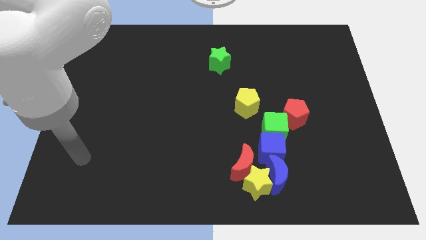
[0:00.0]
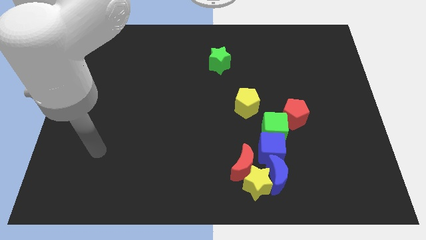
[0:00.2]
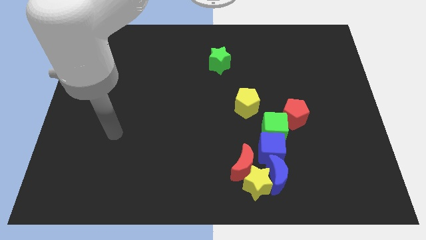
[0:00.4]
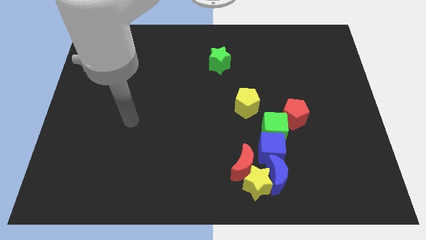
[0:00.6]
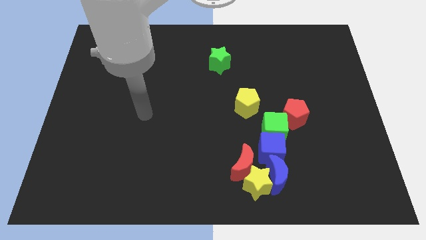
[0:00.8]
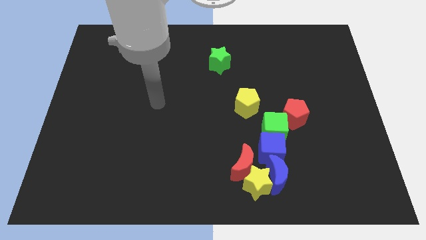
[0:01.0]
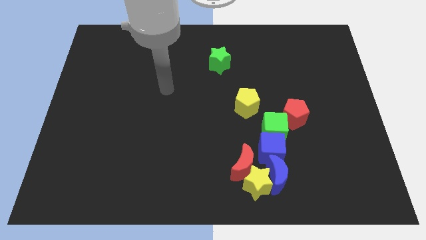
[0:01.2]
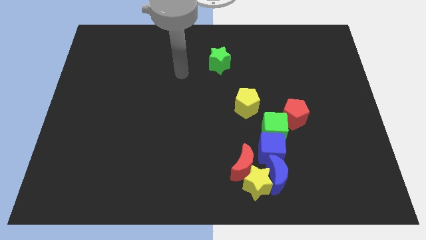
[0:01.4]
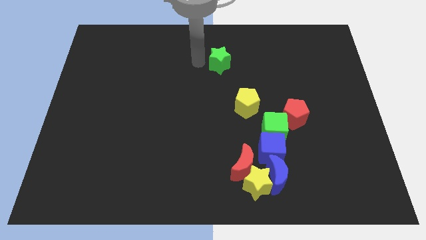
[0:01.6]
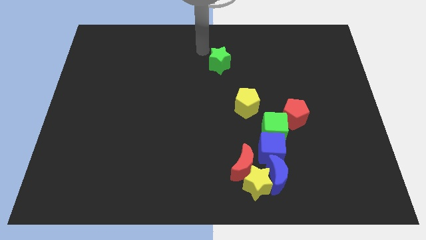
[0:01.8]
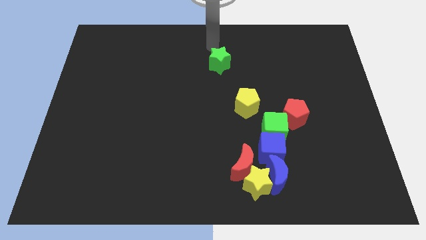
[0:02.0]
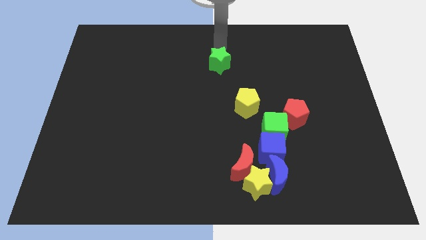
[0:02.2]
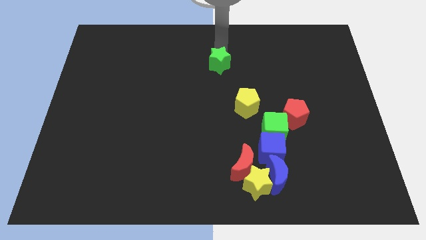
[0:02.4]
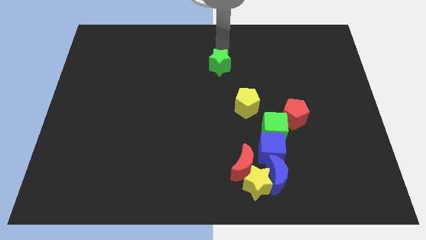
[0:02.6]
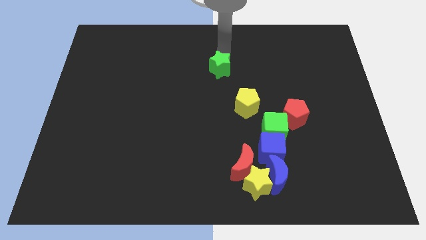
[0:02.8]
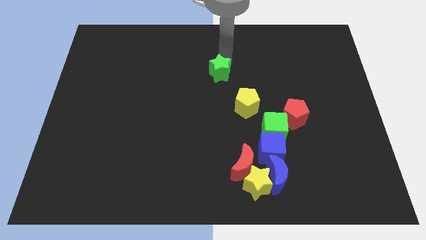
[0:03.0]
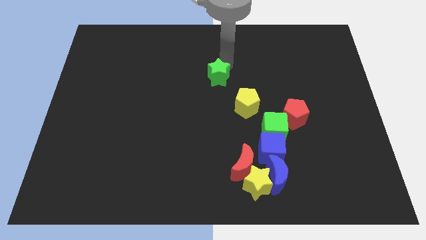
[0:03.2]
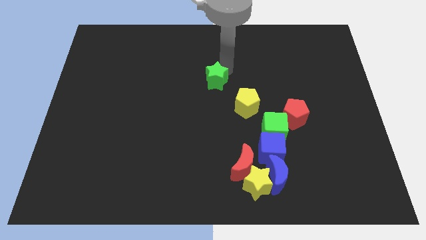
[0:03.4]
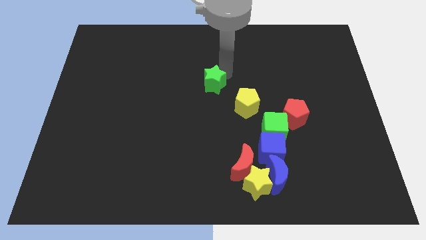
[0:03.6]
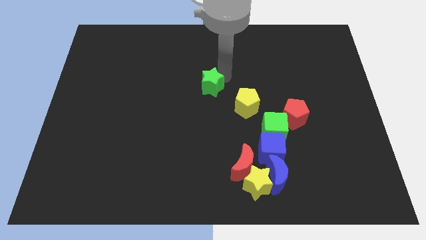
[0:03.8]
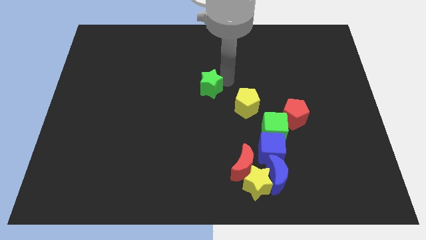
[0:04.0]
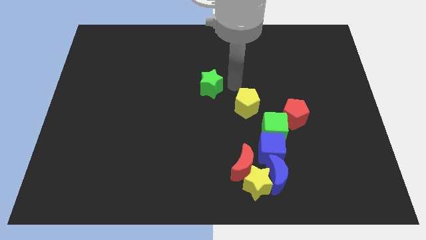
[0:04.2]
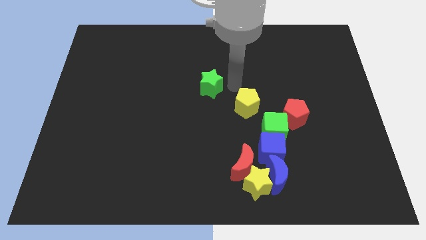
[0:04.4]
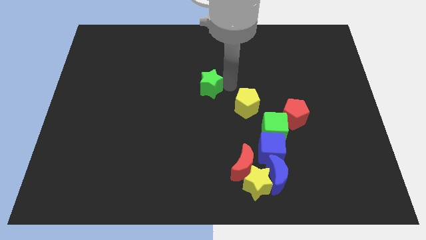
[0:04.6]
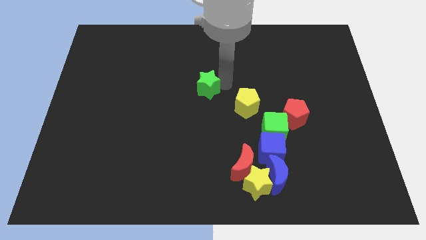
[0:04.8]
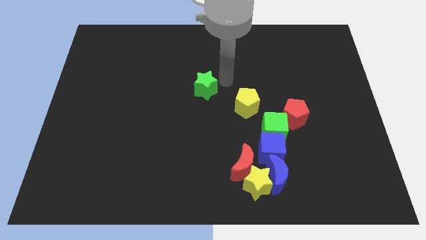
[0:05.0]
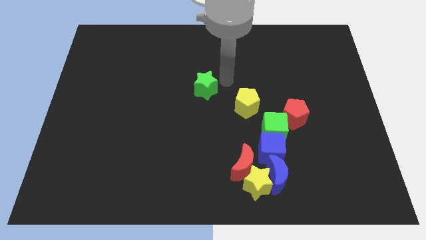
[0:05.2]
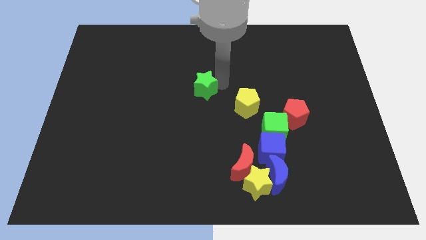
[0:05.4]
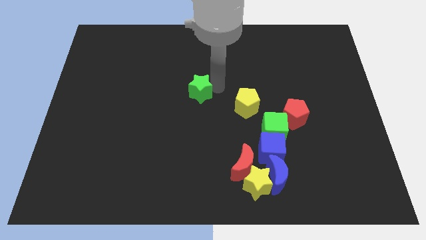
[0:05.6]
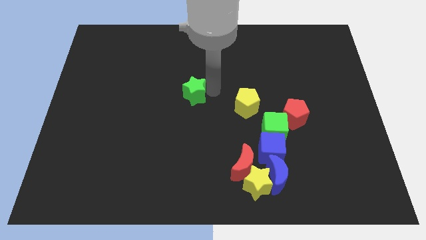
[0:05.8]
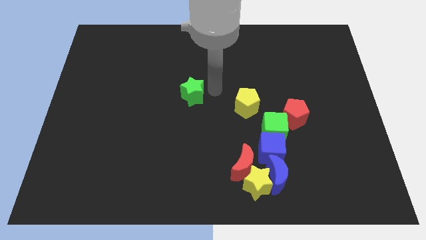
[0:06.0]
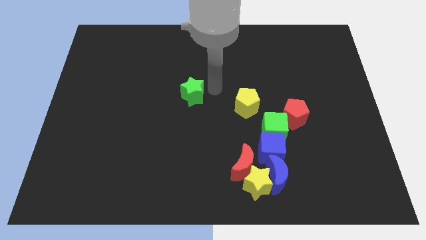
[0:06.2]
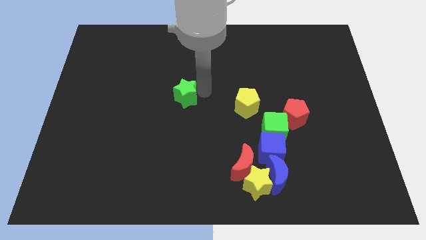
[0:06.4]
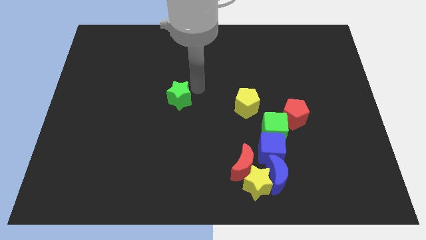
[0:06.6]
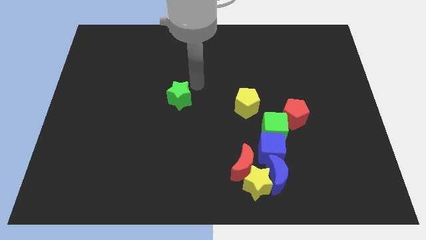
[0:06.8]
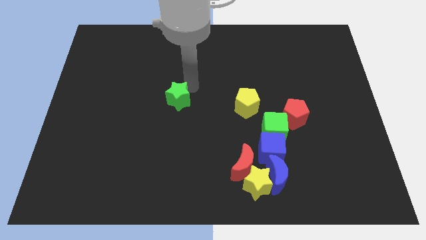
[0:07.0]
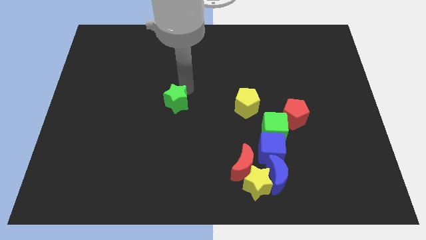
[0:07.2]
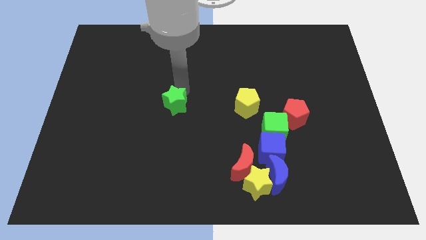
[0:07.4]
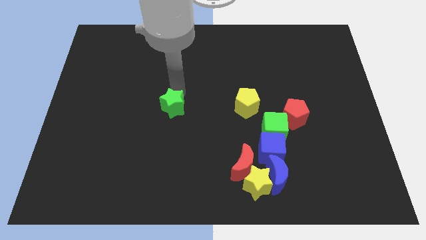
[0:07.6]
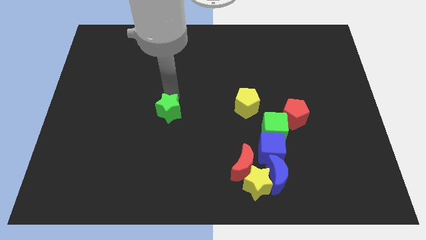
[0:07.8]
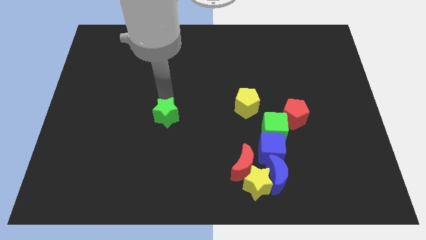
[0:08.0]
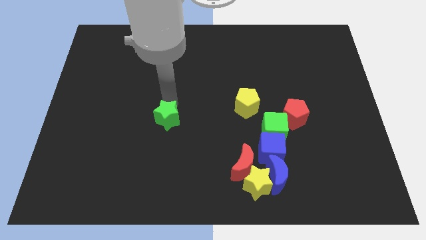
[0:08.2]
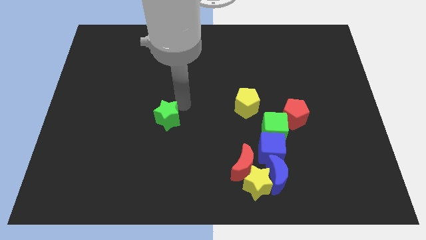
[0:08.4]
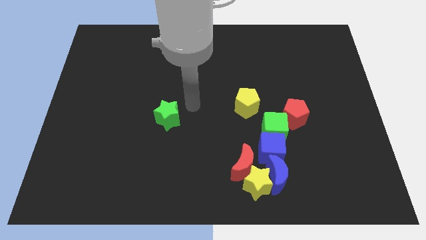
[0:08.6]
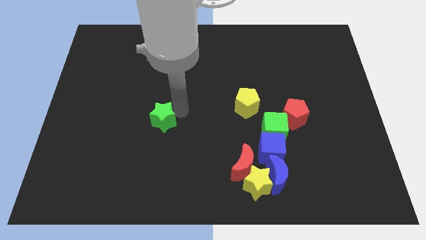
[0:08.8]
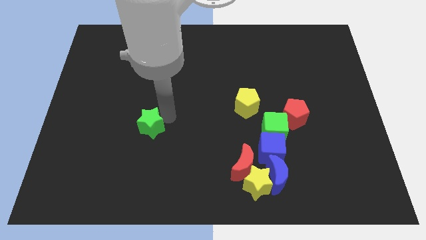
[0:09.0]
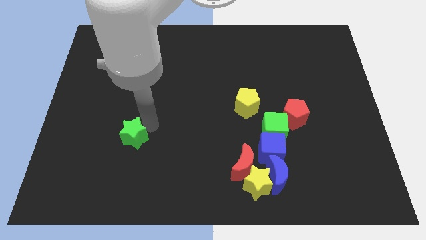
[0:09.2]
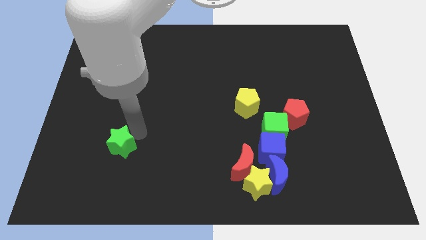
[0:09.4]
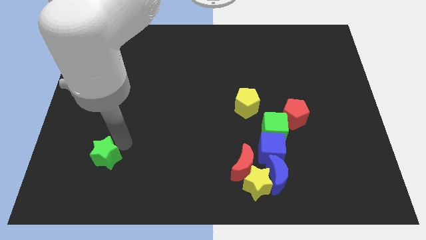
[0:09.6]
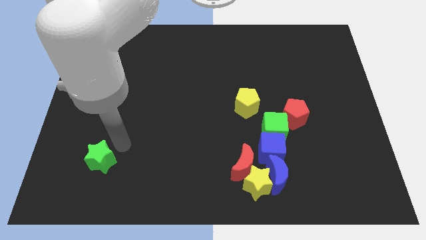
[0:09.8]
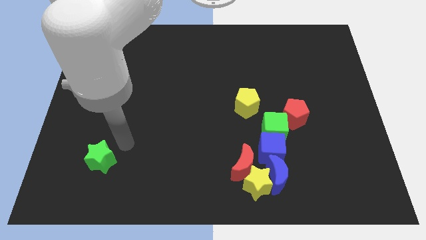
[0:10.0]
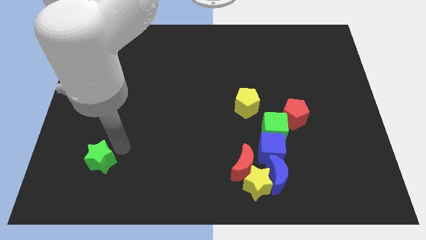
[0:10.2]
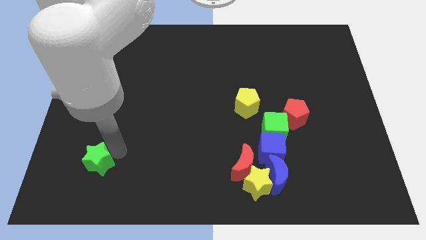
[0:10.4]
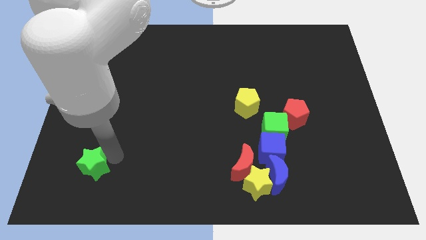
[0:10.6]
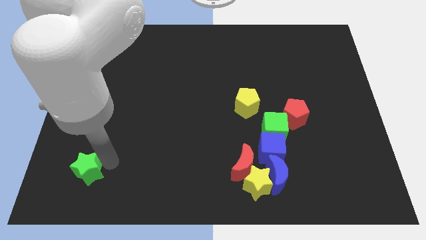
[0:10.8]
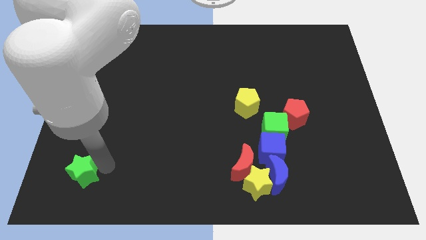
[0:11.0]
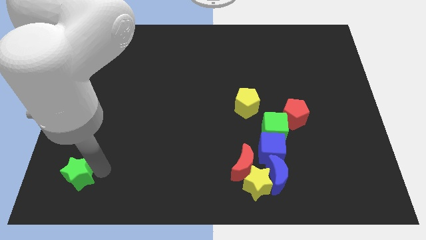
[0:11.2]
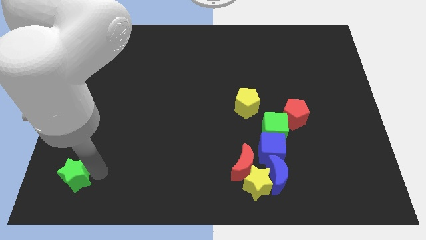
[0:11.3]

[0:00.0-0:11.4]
slide the green star to the lower left corner

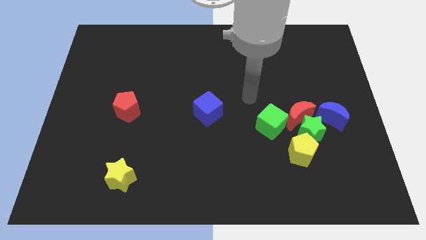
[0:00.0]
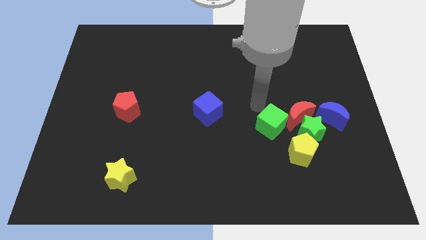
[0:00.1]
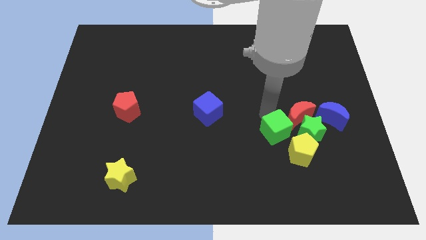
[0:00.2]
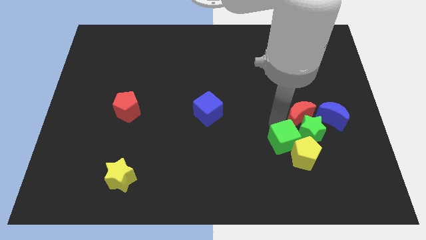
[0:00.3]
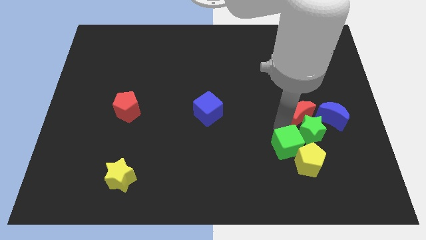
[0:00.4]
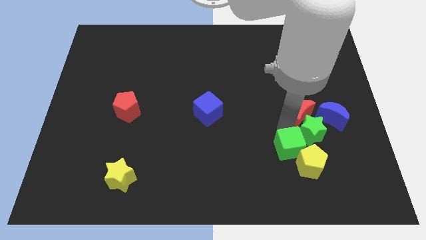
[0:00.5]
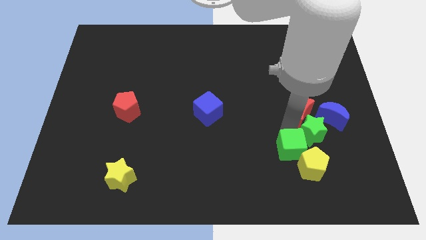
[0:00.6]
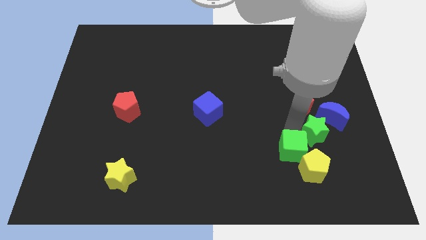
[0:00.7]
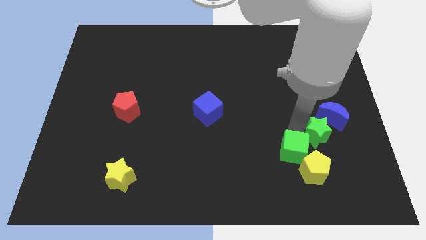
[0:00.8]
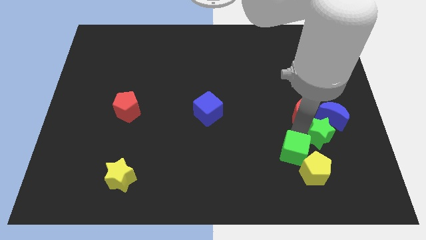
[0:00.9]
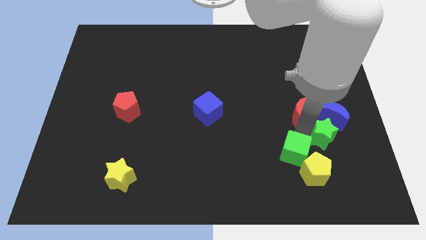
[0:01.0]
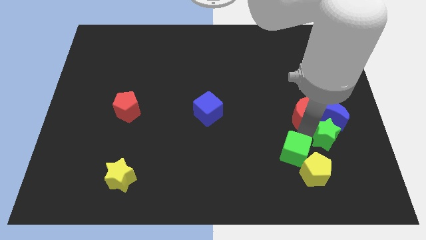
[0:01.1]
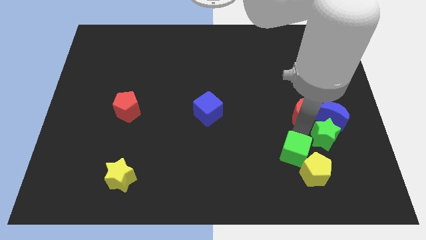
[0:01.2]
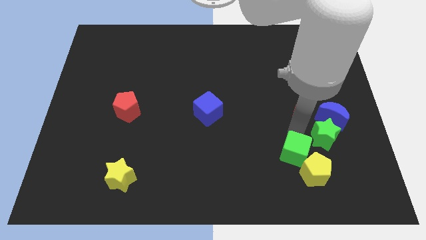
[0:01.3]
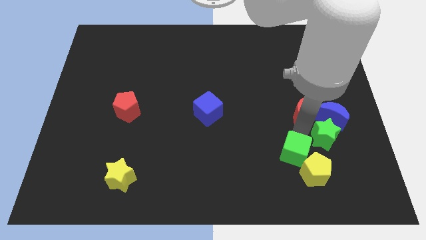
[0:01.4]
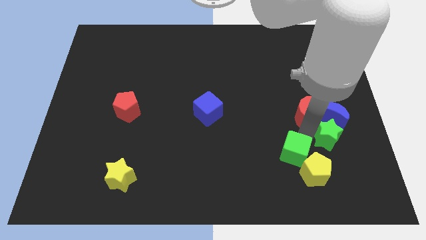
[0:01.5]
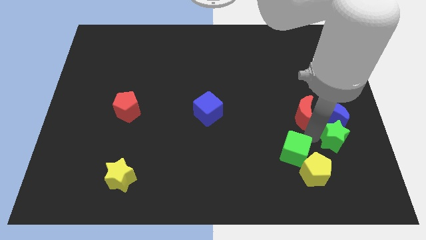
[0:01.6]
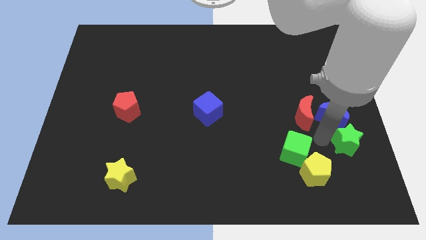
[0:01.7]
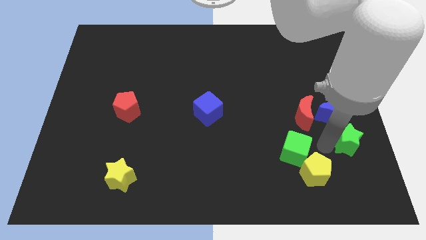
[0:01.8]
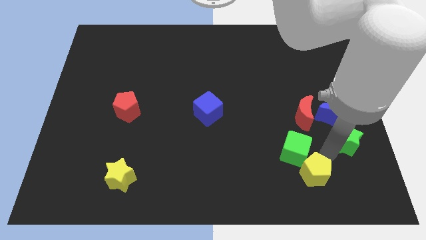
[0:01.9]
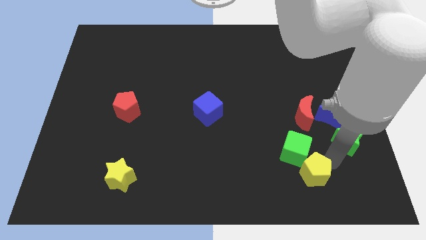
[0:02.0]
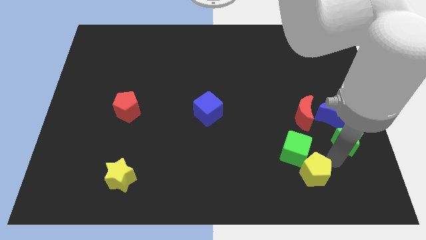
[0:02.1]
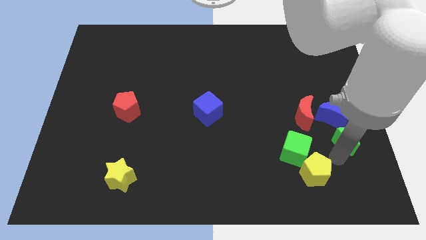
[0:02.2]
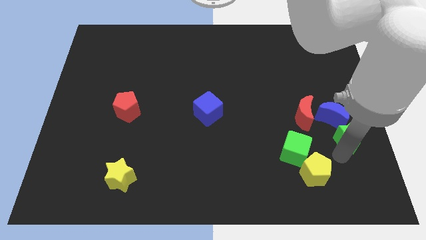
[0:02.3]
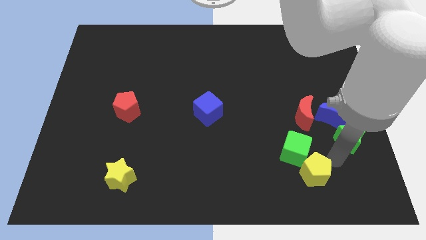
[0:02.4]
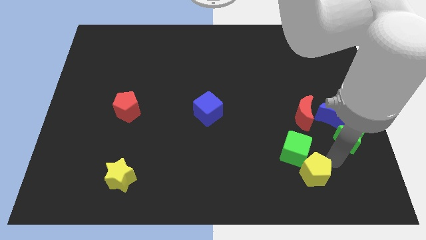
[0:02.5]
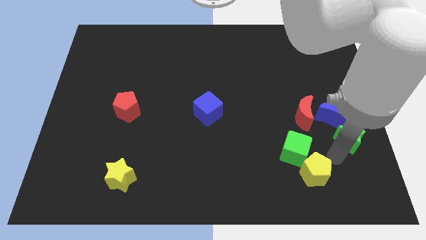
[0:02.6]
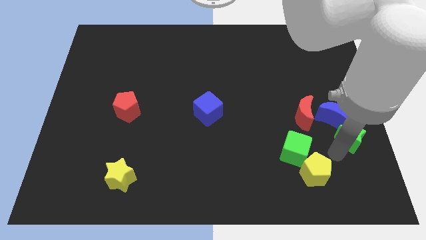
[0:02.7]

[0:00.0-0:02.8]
put the green star to the right side
